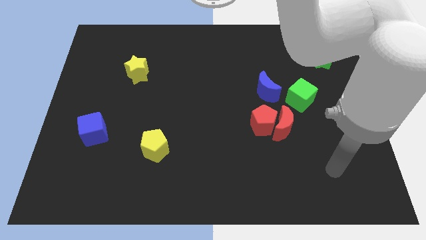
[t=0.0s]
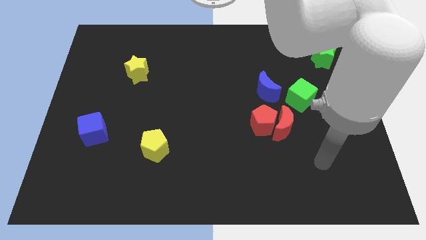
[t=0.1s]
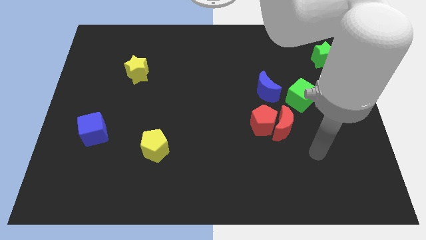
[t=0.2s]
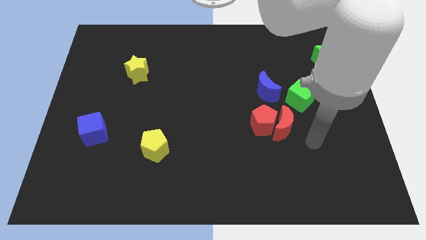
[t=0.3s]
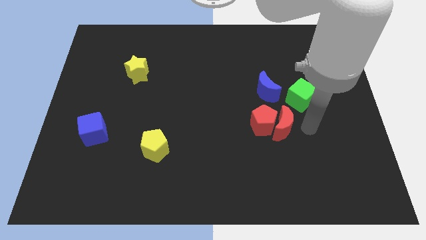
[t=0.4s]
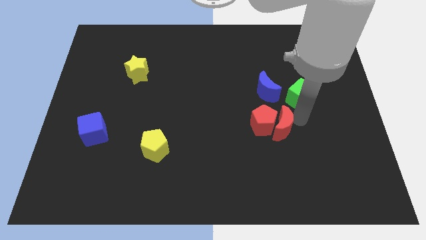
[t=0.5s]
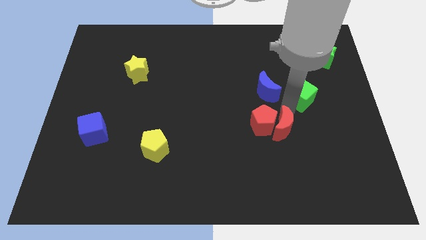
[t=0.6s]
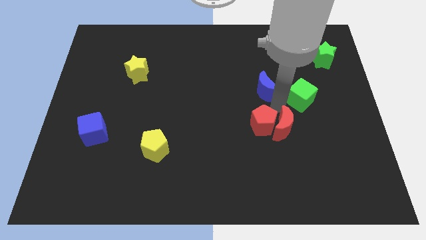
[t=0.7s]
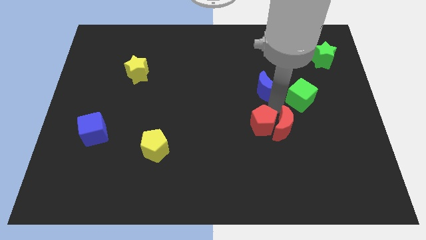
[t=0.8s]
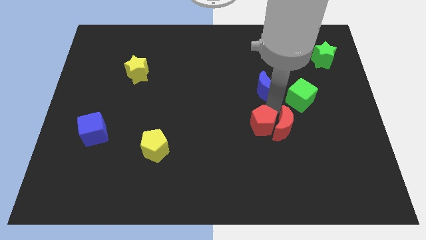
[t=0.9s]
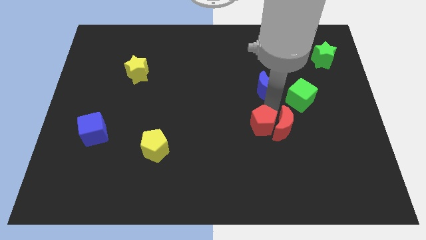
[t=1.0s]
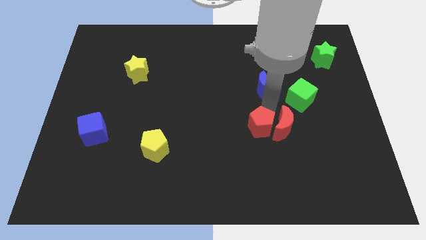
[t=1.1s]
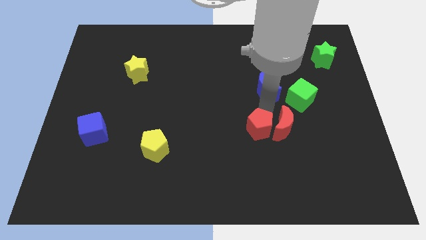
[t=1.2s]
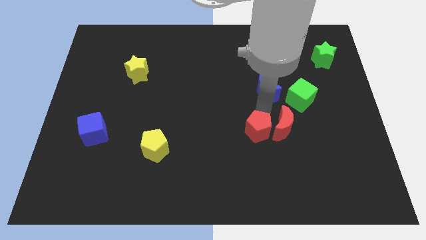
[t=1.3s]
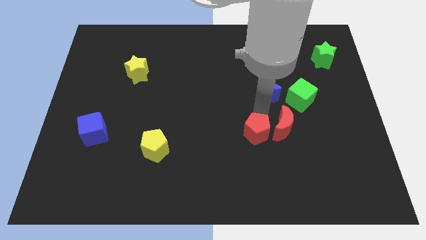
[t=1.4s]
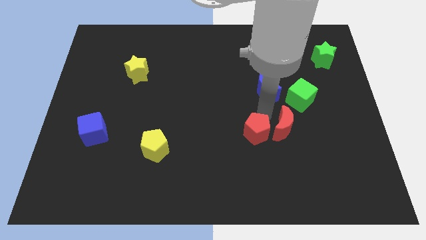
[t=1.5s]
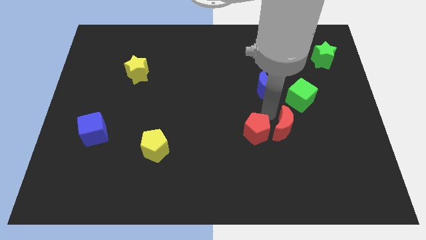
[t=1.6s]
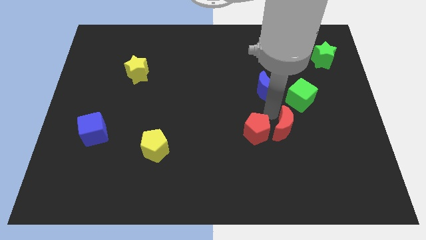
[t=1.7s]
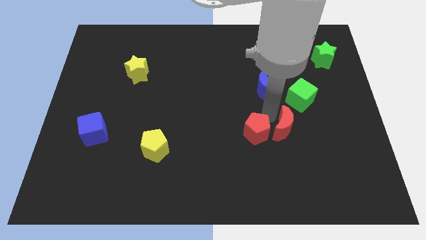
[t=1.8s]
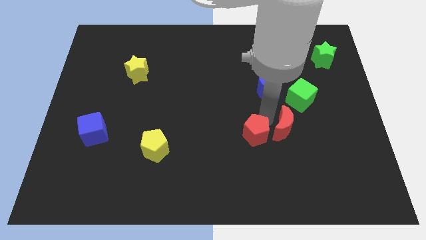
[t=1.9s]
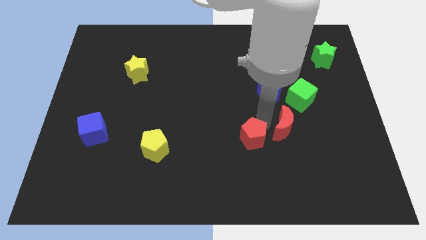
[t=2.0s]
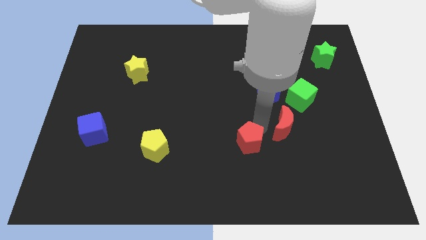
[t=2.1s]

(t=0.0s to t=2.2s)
move the red pentagon away from the red moon and blue moon

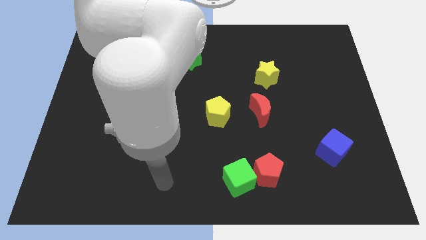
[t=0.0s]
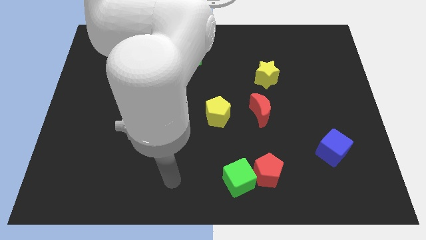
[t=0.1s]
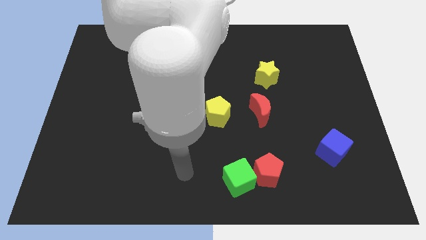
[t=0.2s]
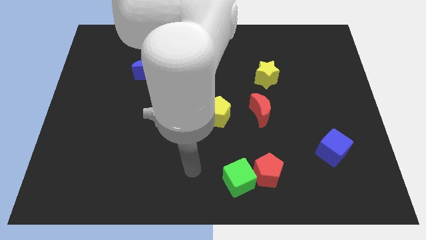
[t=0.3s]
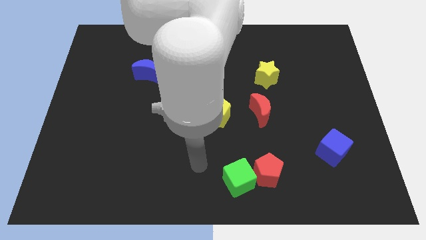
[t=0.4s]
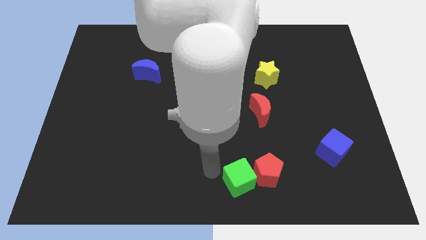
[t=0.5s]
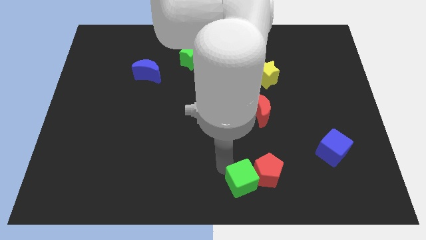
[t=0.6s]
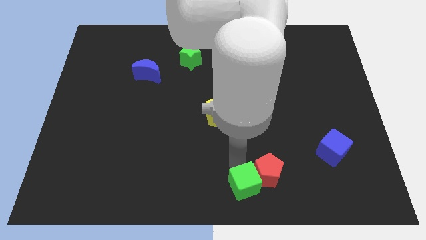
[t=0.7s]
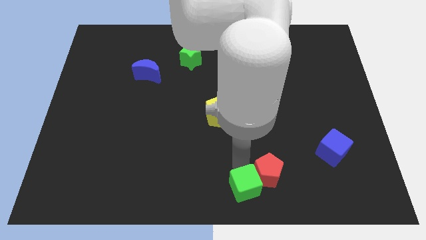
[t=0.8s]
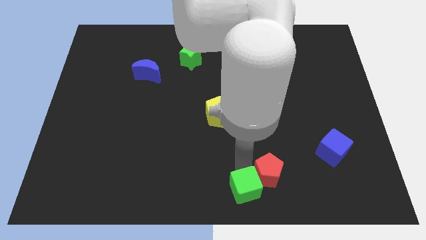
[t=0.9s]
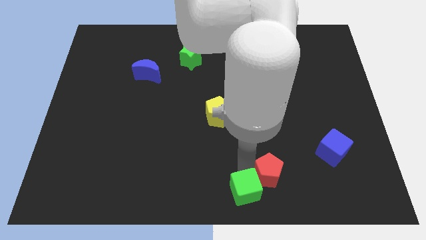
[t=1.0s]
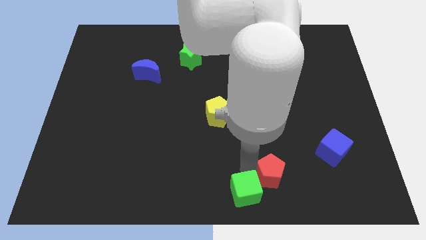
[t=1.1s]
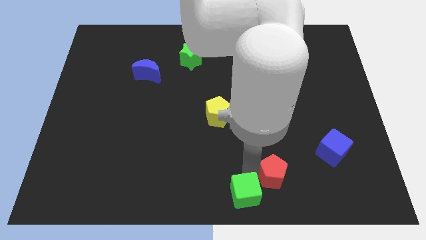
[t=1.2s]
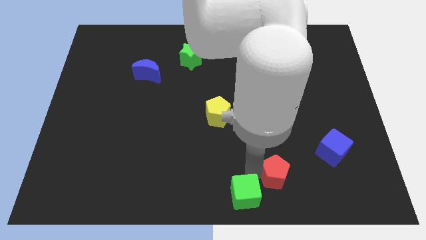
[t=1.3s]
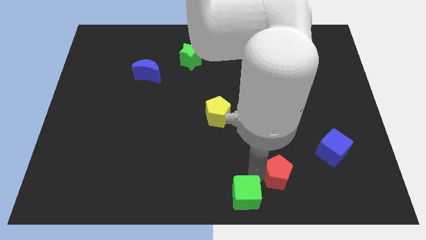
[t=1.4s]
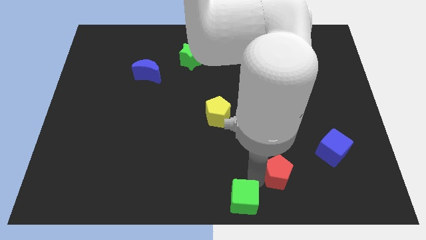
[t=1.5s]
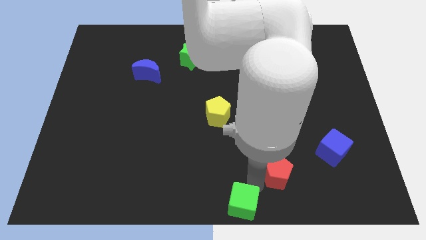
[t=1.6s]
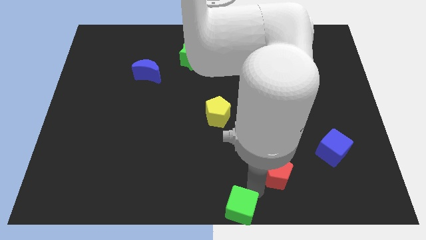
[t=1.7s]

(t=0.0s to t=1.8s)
move the red pentagon away from the green cube

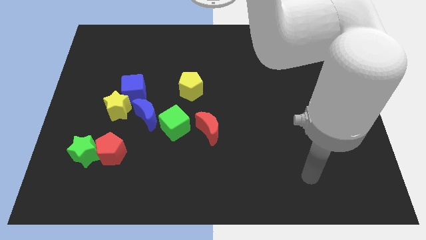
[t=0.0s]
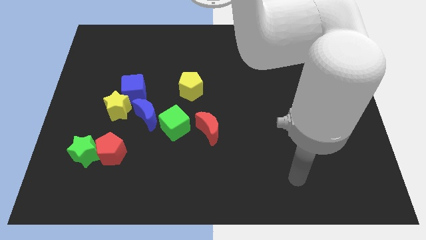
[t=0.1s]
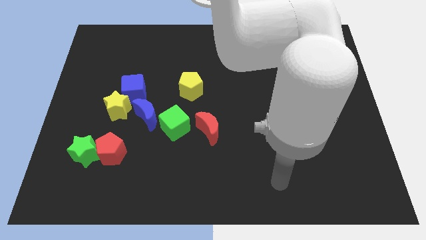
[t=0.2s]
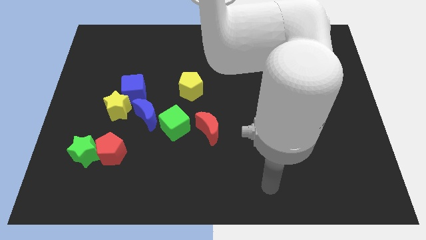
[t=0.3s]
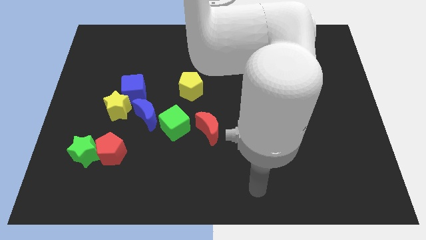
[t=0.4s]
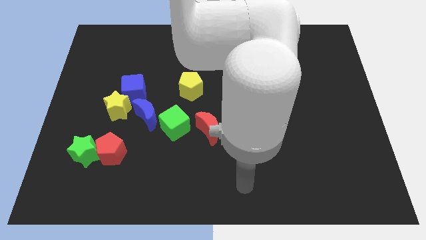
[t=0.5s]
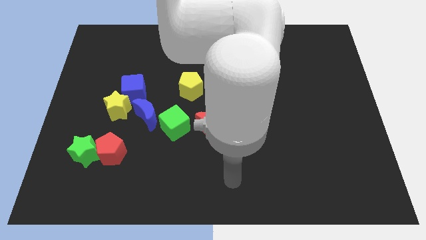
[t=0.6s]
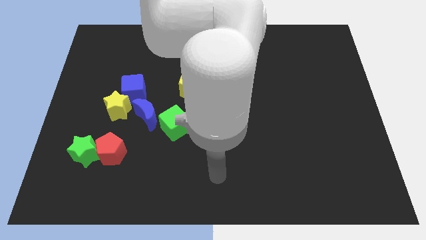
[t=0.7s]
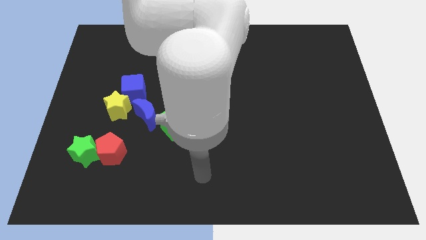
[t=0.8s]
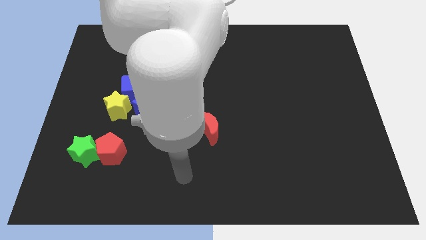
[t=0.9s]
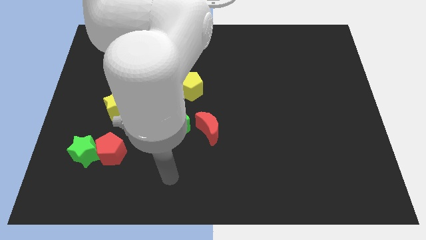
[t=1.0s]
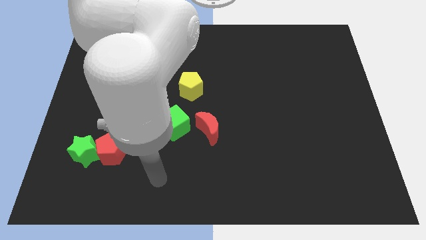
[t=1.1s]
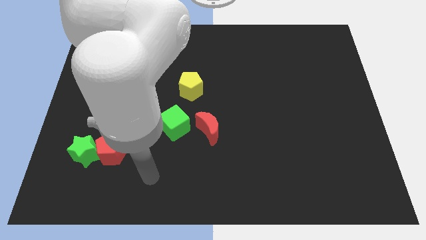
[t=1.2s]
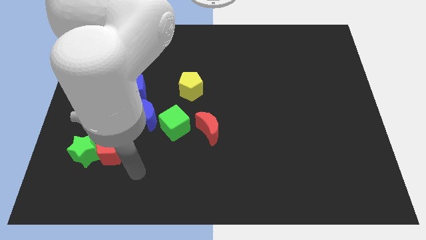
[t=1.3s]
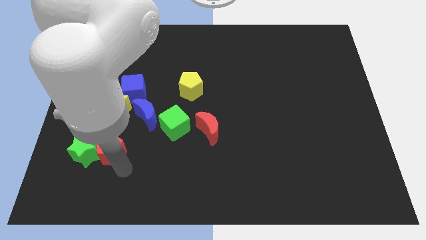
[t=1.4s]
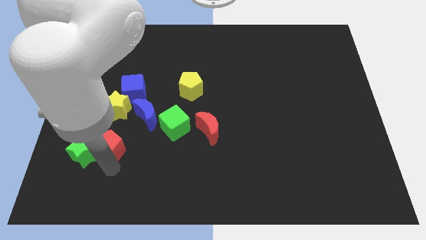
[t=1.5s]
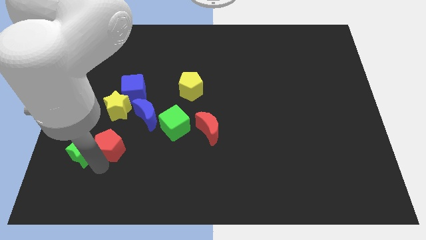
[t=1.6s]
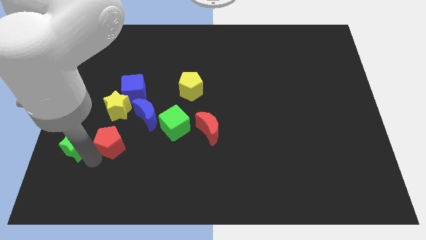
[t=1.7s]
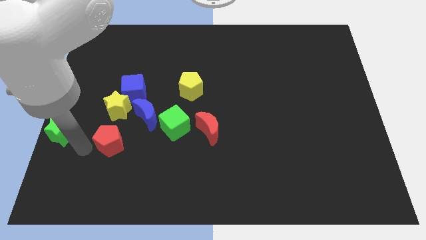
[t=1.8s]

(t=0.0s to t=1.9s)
separate the red pentagon from the green star

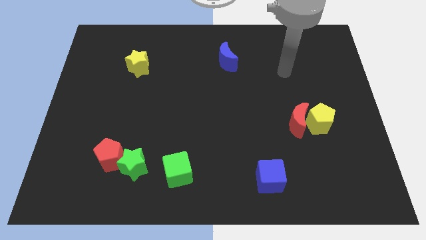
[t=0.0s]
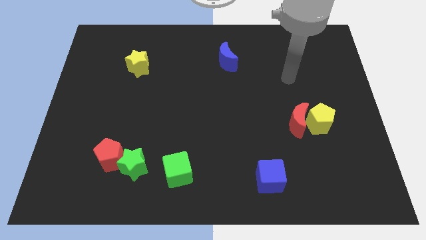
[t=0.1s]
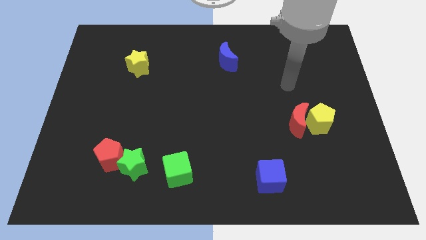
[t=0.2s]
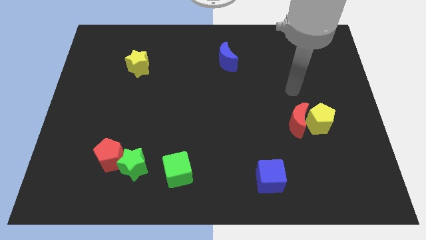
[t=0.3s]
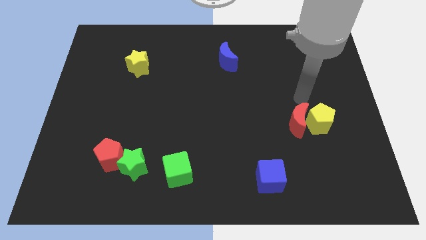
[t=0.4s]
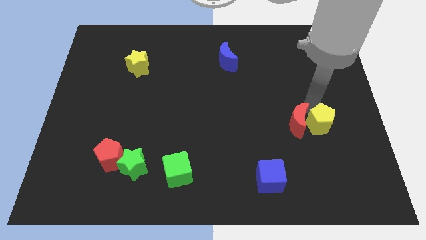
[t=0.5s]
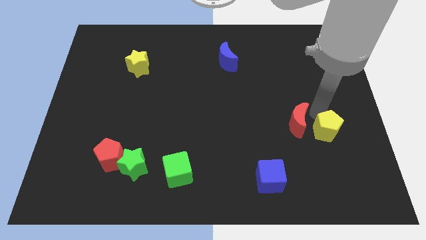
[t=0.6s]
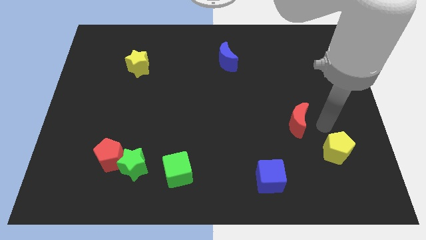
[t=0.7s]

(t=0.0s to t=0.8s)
move the red moon away from the yellow pentagon

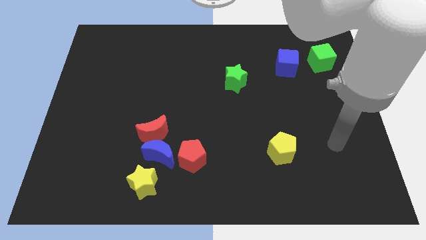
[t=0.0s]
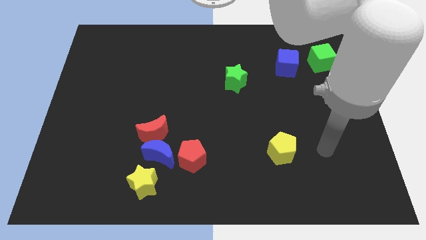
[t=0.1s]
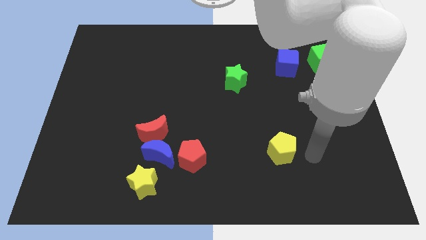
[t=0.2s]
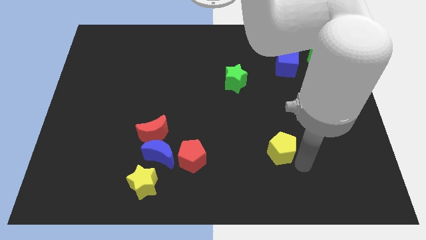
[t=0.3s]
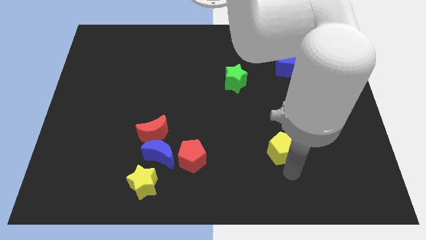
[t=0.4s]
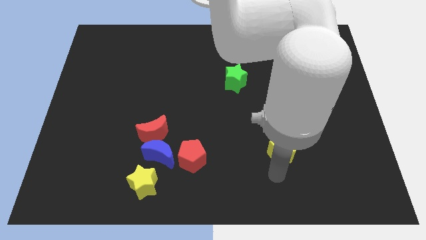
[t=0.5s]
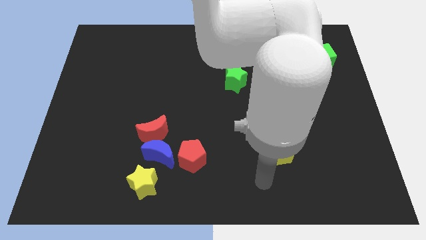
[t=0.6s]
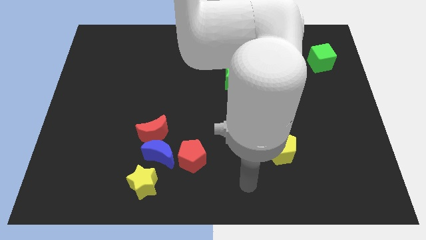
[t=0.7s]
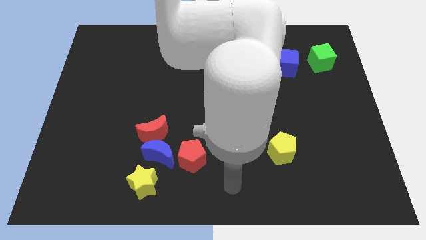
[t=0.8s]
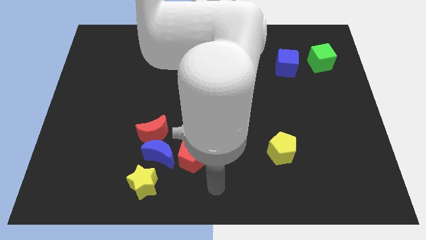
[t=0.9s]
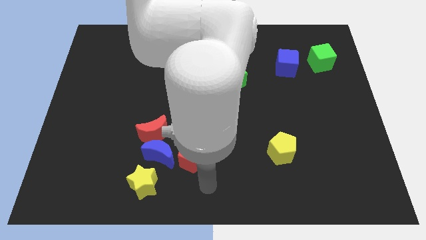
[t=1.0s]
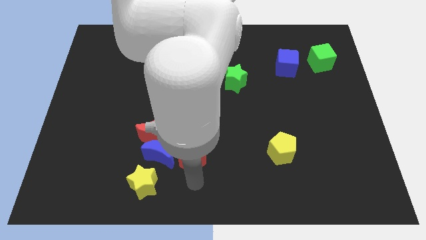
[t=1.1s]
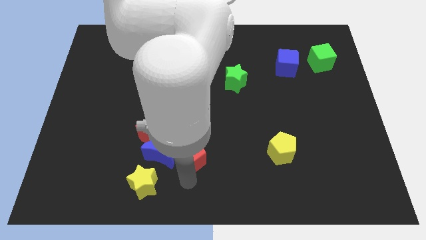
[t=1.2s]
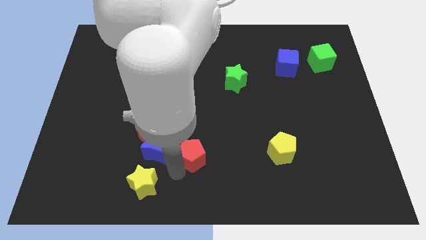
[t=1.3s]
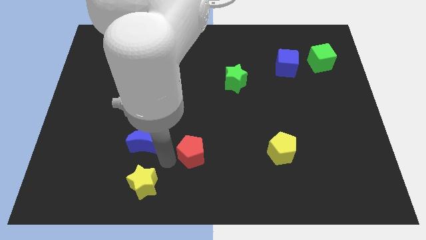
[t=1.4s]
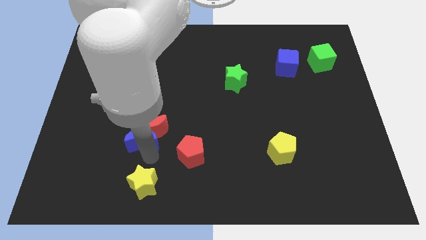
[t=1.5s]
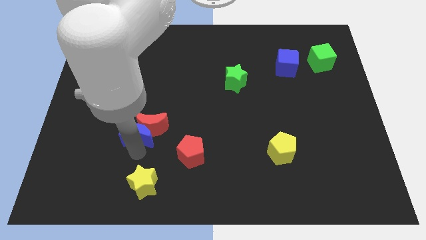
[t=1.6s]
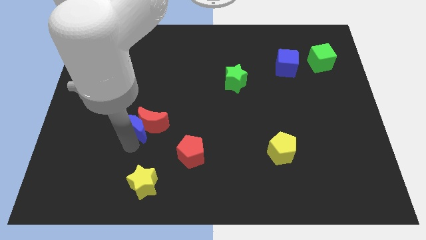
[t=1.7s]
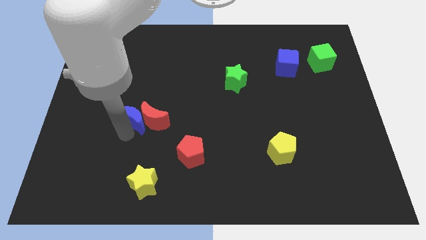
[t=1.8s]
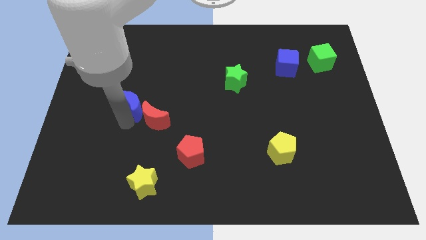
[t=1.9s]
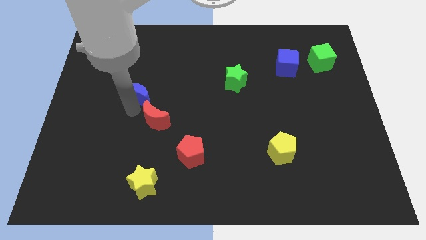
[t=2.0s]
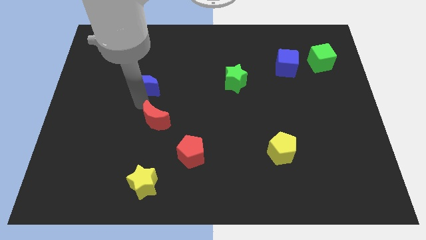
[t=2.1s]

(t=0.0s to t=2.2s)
pull the red moon apart from the blue moon

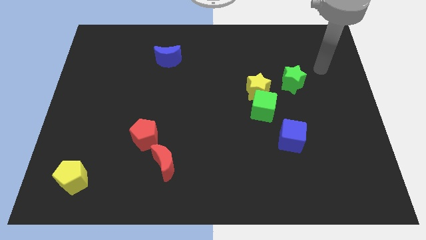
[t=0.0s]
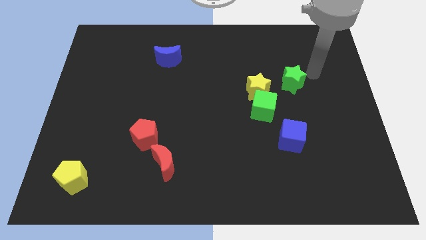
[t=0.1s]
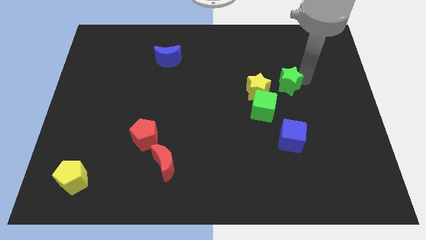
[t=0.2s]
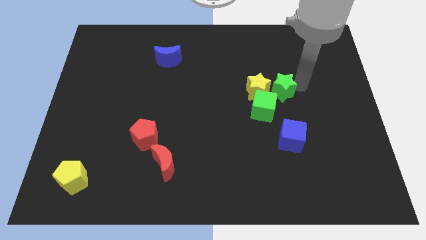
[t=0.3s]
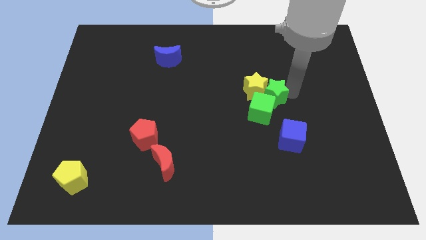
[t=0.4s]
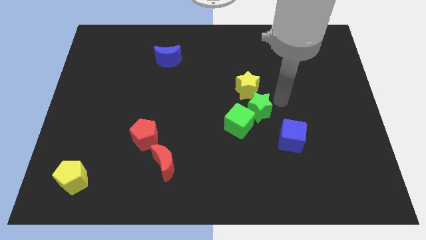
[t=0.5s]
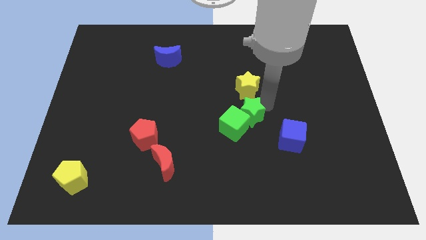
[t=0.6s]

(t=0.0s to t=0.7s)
separate the yellow star from the green cube and green star
